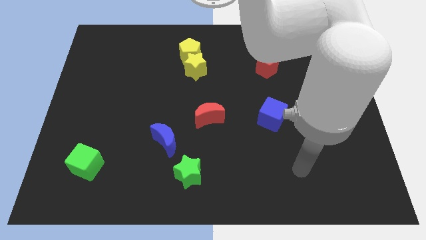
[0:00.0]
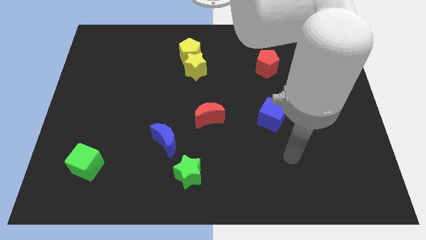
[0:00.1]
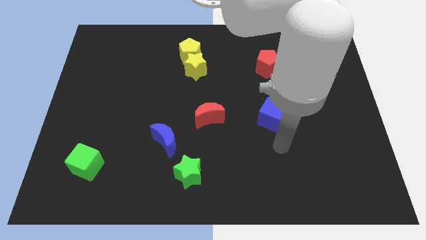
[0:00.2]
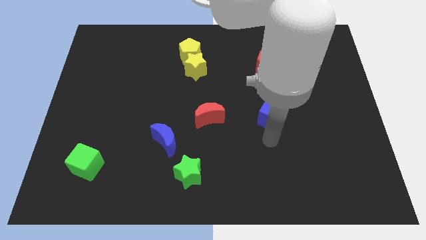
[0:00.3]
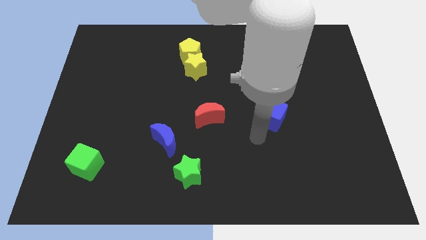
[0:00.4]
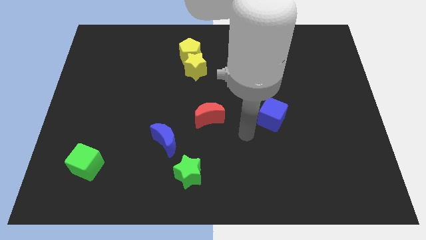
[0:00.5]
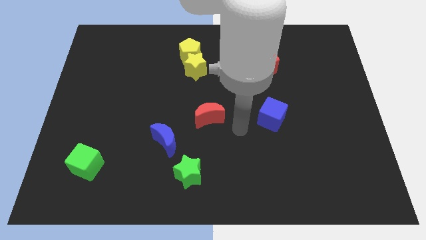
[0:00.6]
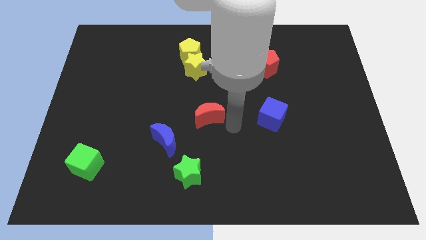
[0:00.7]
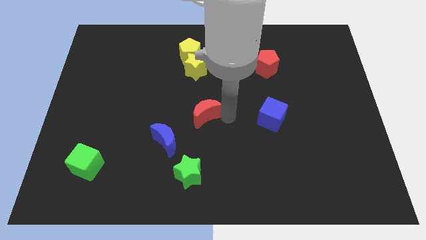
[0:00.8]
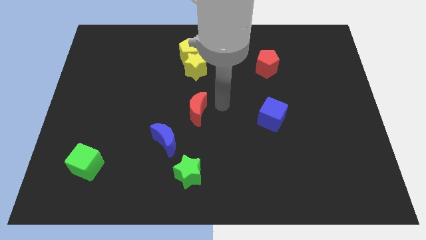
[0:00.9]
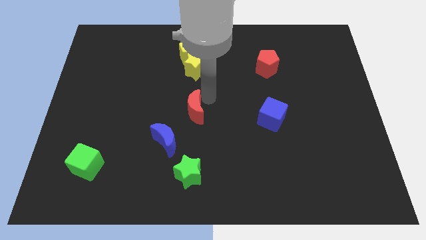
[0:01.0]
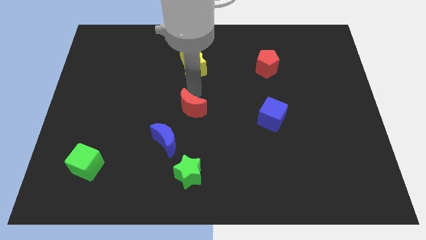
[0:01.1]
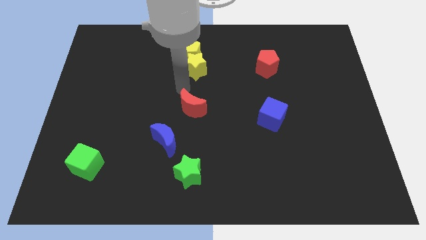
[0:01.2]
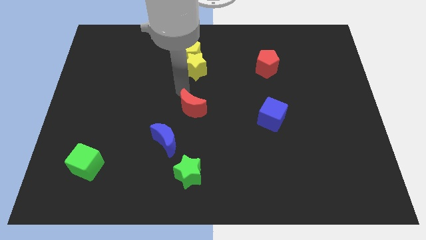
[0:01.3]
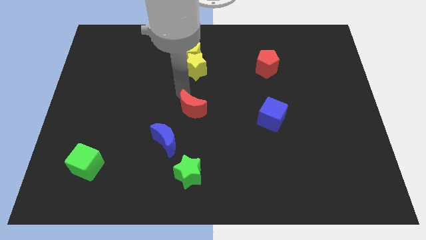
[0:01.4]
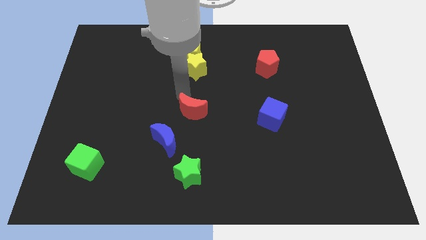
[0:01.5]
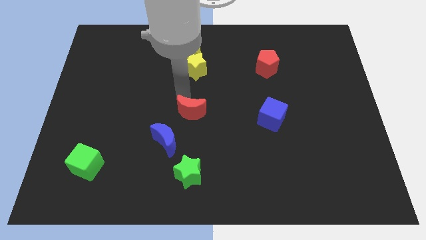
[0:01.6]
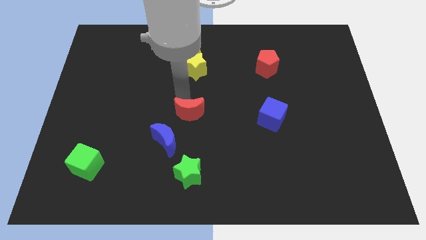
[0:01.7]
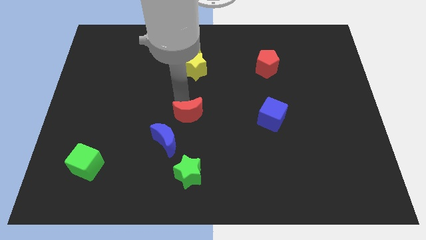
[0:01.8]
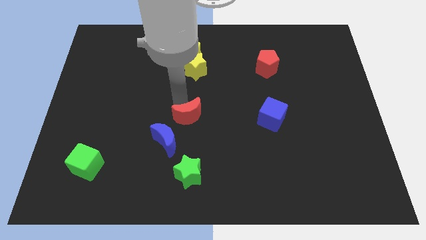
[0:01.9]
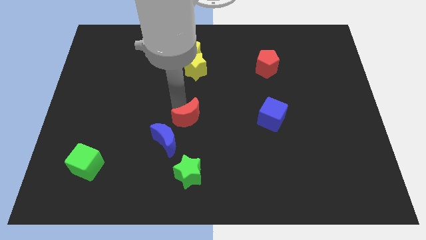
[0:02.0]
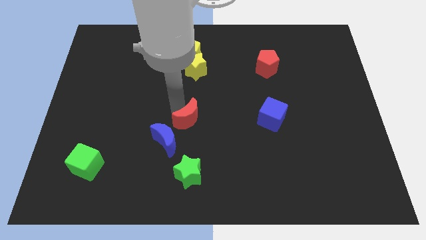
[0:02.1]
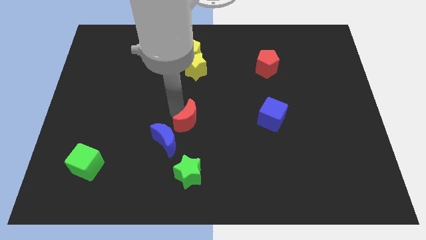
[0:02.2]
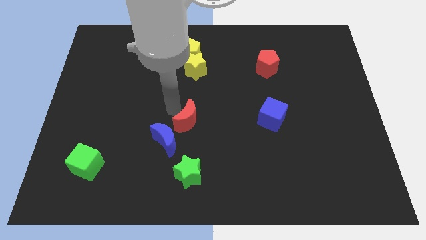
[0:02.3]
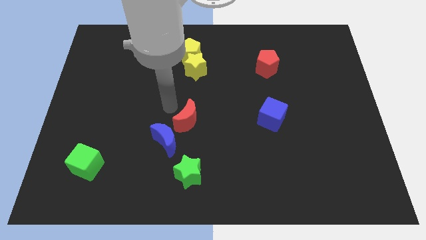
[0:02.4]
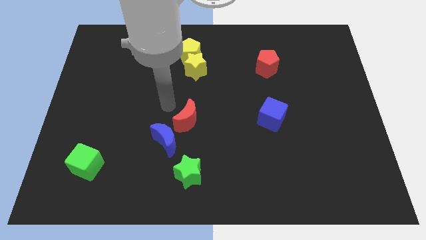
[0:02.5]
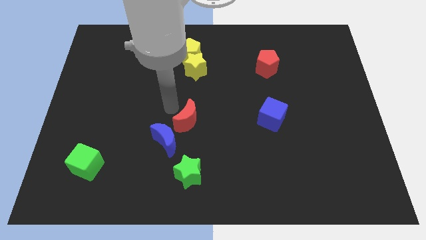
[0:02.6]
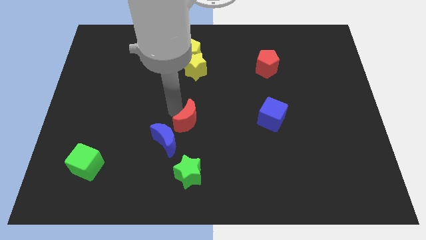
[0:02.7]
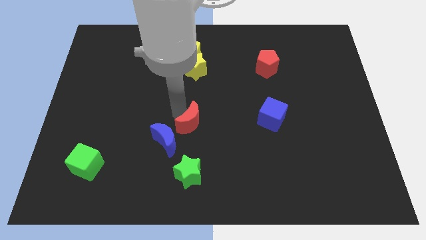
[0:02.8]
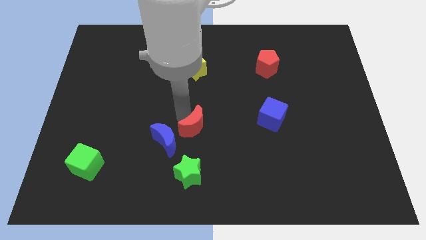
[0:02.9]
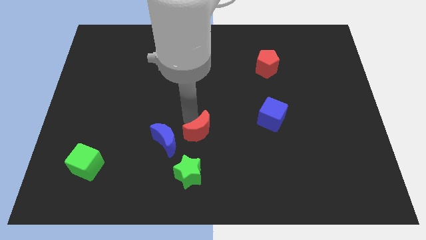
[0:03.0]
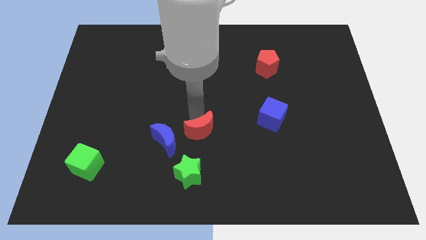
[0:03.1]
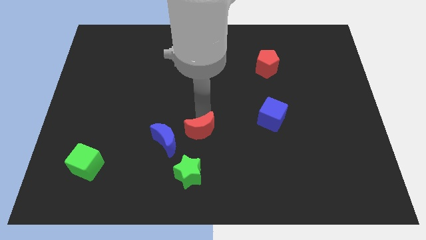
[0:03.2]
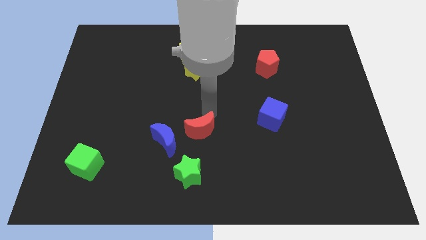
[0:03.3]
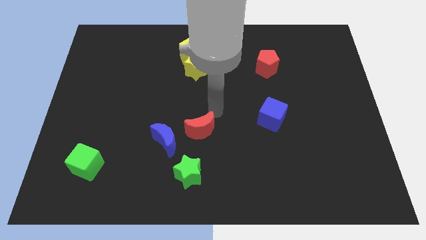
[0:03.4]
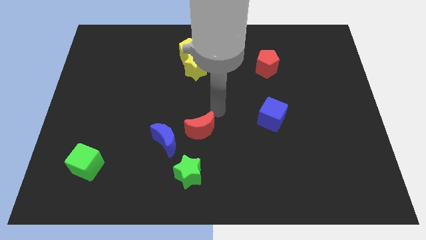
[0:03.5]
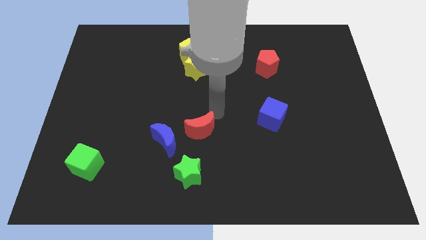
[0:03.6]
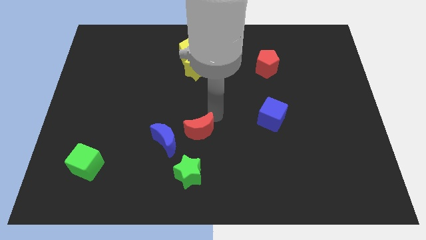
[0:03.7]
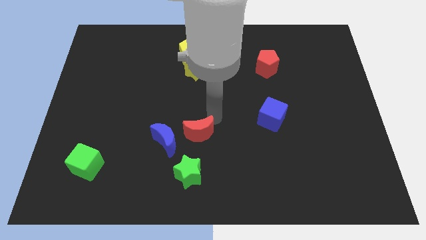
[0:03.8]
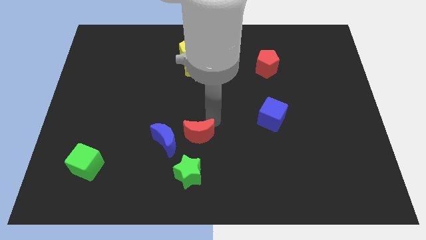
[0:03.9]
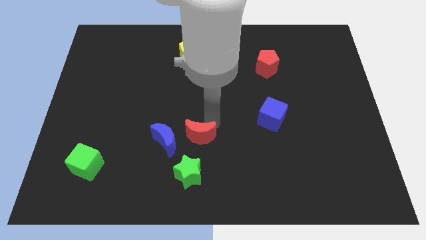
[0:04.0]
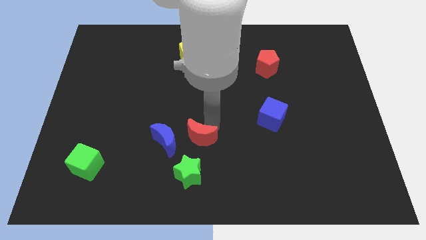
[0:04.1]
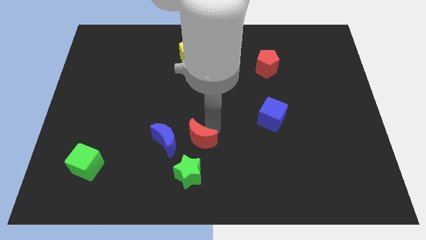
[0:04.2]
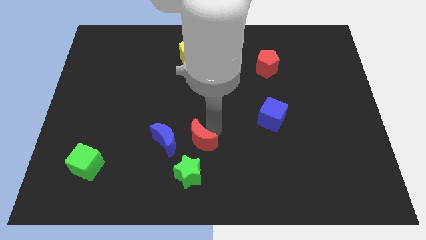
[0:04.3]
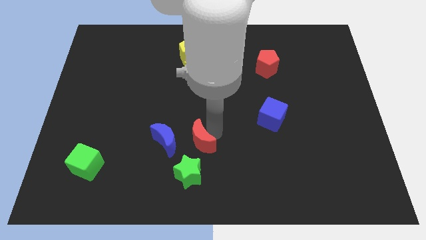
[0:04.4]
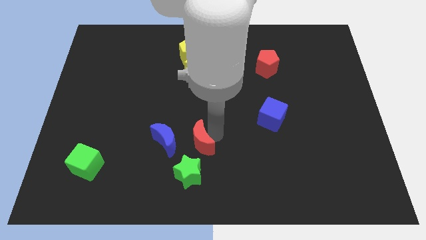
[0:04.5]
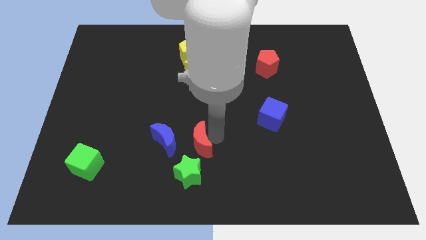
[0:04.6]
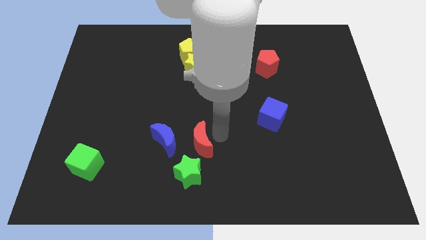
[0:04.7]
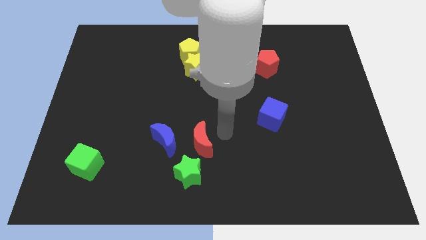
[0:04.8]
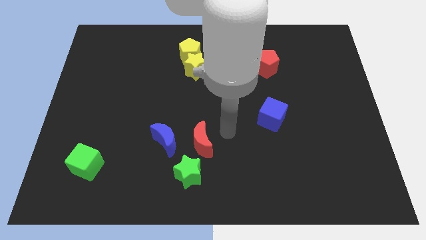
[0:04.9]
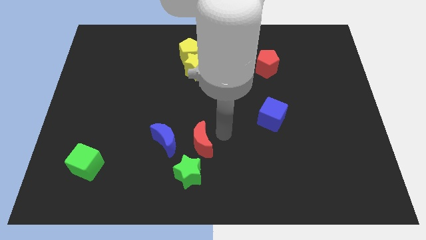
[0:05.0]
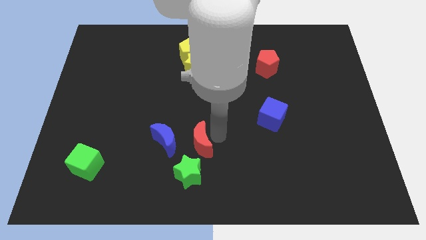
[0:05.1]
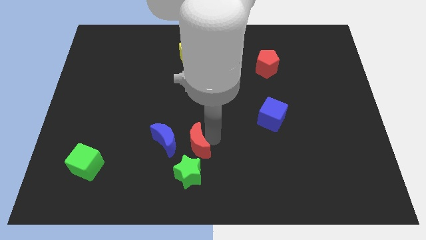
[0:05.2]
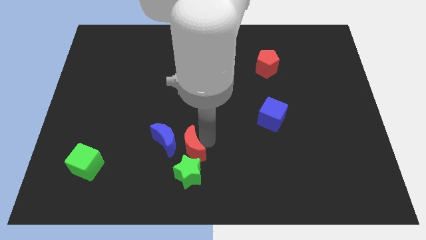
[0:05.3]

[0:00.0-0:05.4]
move the red moon a little bit downwards and then left

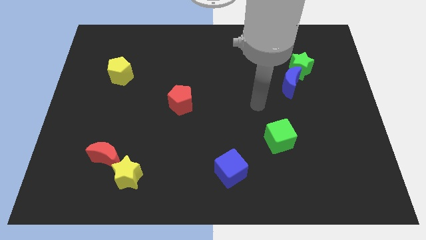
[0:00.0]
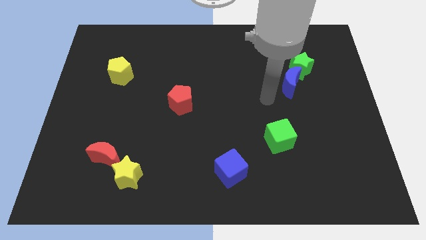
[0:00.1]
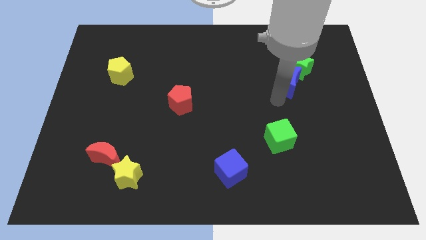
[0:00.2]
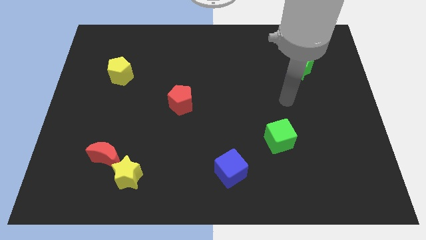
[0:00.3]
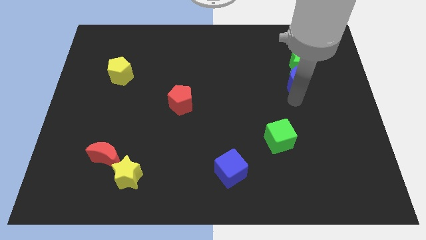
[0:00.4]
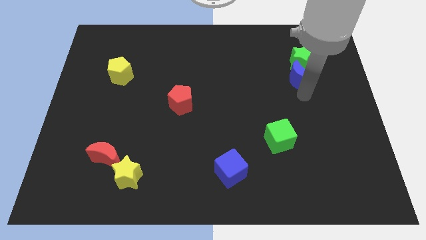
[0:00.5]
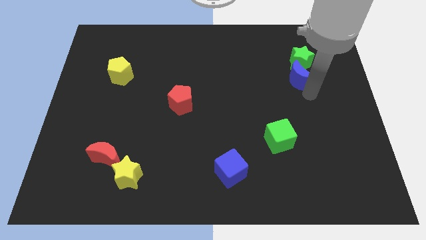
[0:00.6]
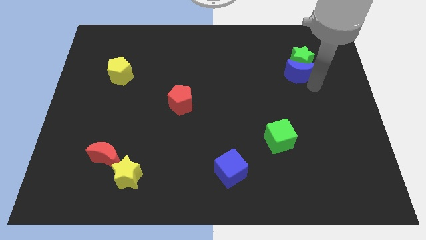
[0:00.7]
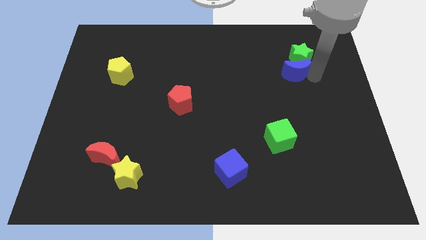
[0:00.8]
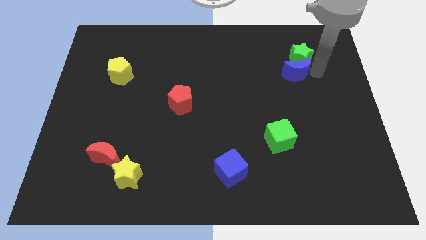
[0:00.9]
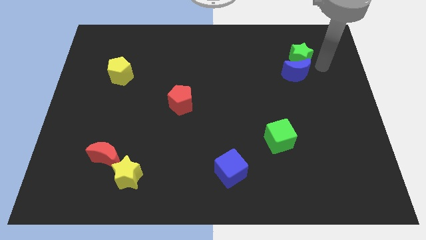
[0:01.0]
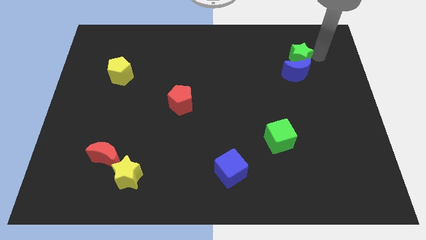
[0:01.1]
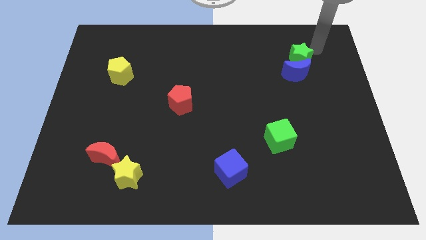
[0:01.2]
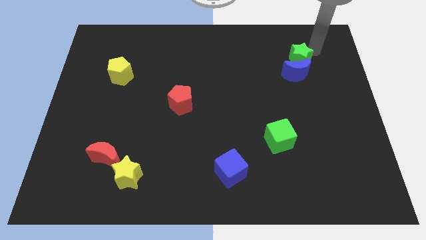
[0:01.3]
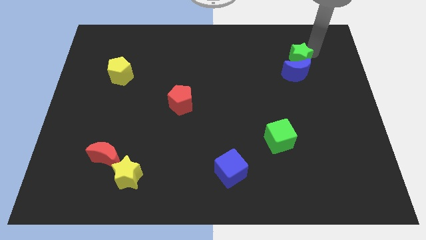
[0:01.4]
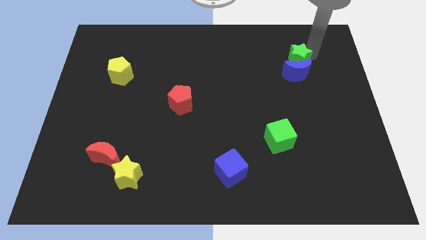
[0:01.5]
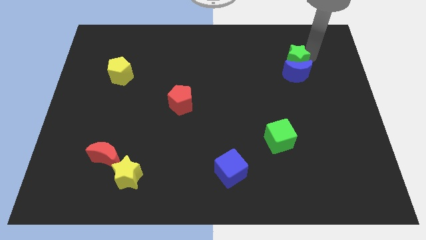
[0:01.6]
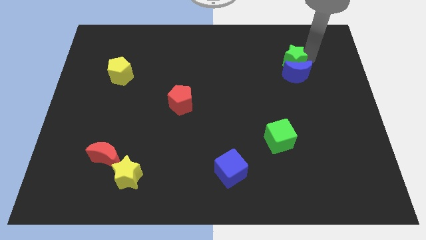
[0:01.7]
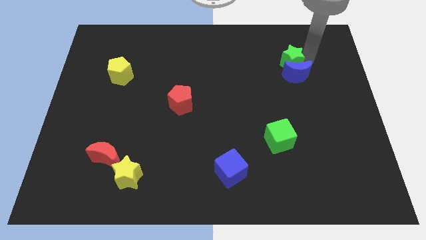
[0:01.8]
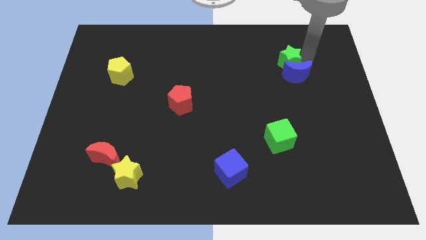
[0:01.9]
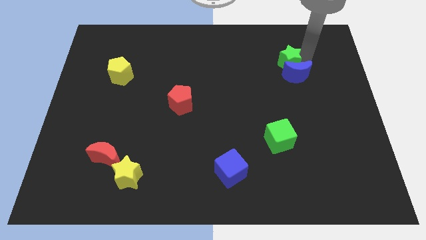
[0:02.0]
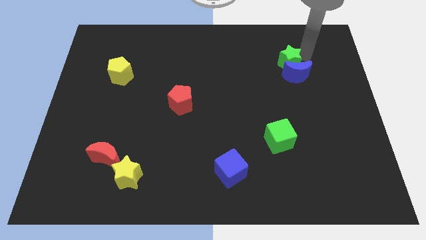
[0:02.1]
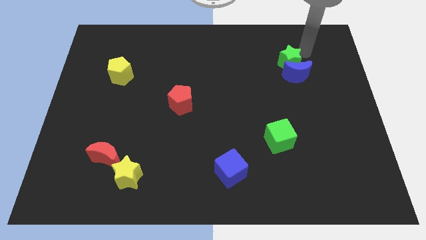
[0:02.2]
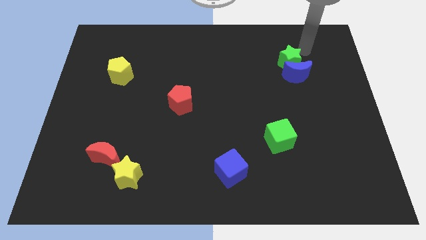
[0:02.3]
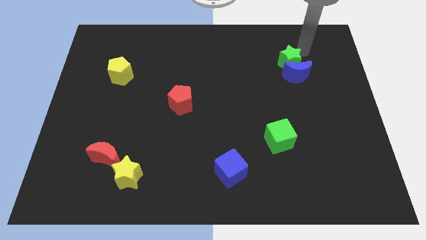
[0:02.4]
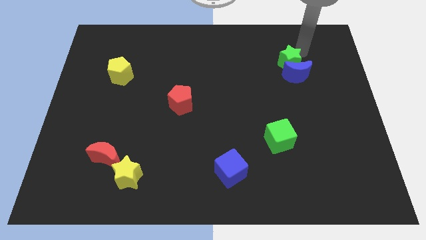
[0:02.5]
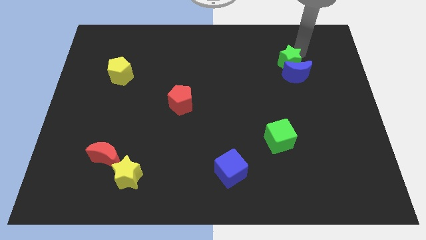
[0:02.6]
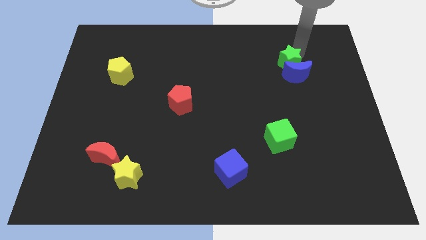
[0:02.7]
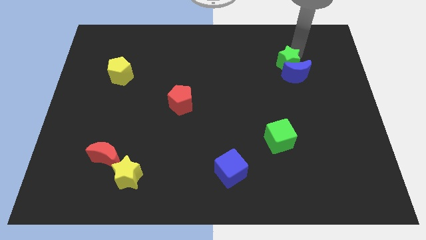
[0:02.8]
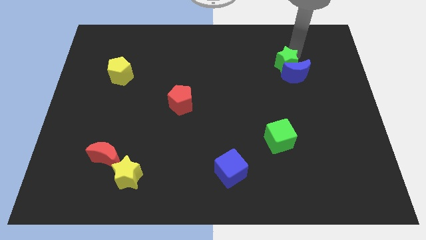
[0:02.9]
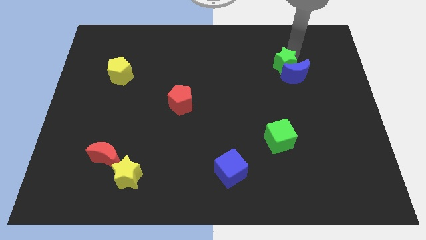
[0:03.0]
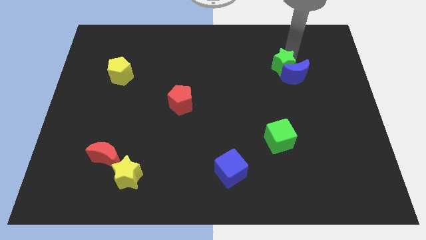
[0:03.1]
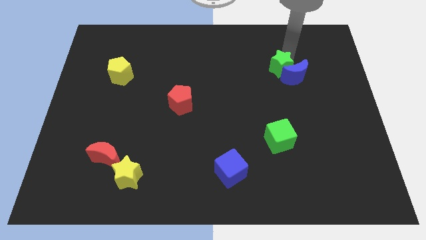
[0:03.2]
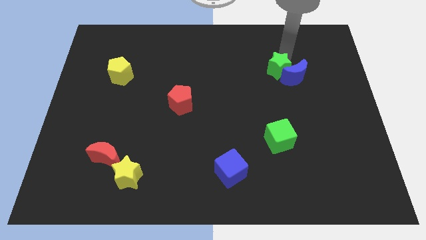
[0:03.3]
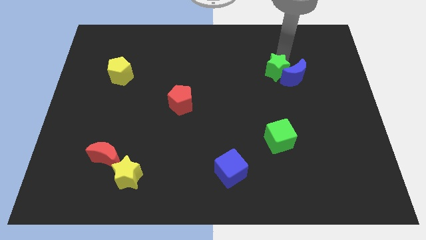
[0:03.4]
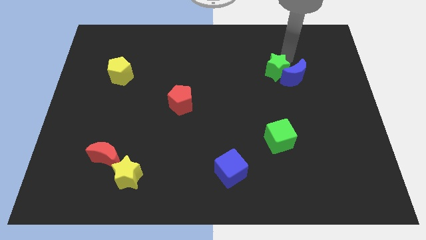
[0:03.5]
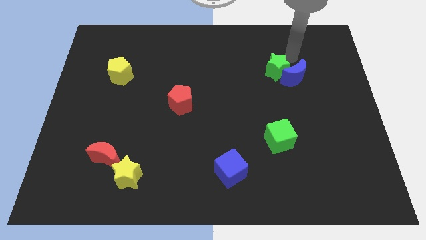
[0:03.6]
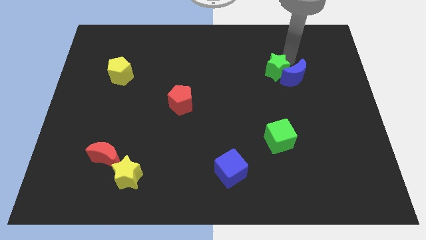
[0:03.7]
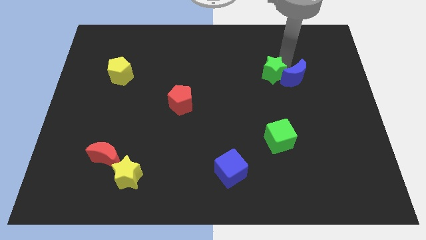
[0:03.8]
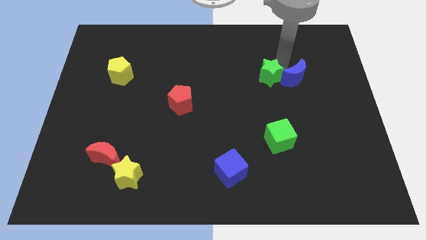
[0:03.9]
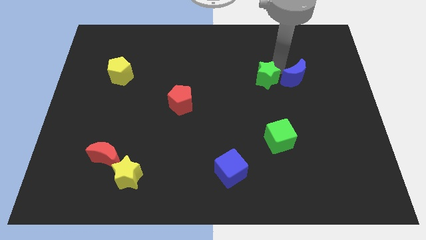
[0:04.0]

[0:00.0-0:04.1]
move the green star downwards and then to the left a bit
